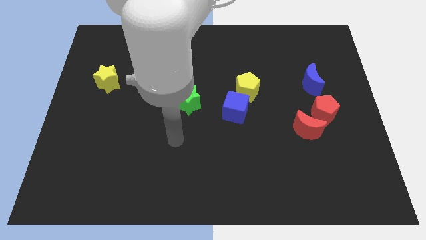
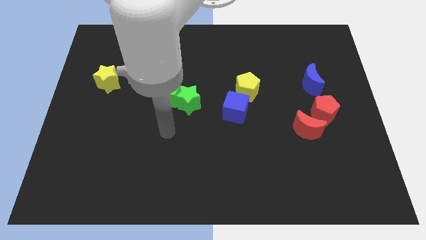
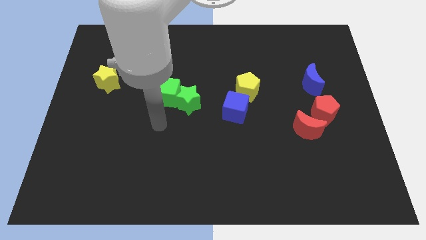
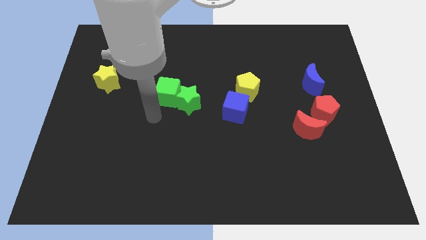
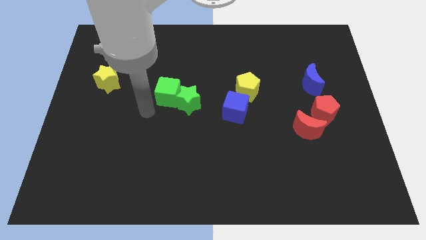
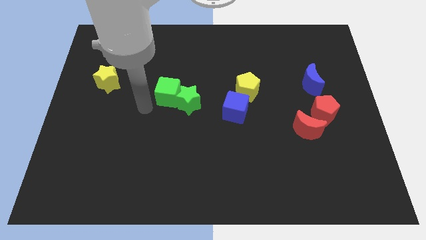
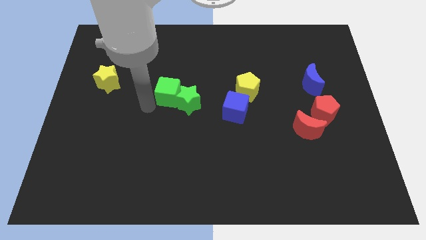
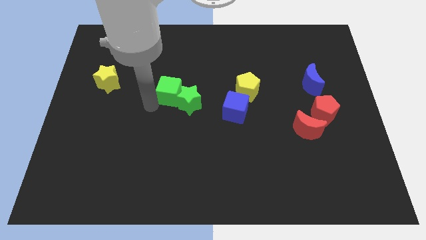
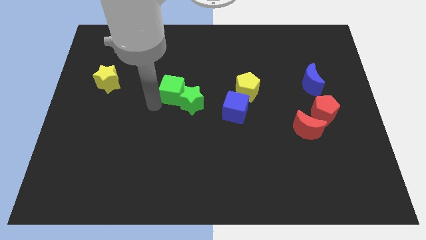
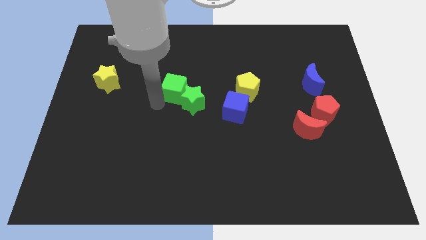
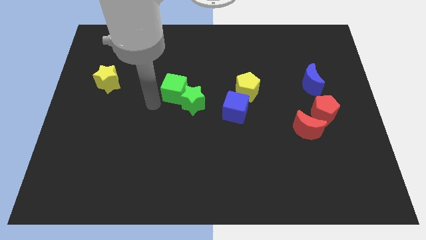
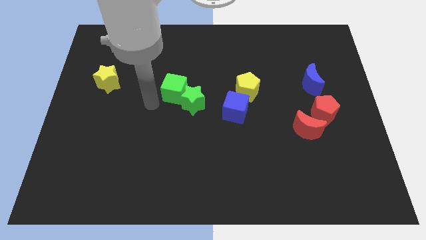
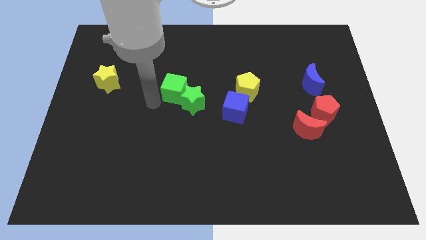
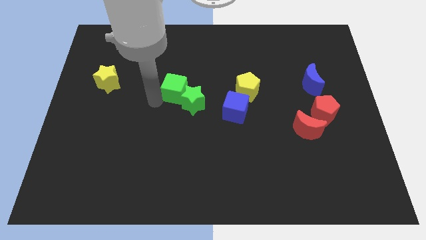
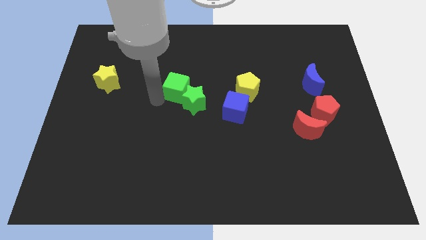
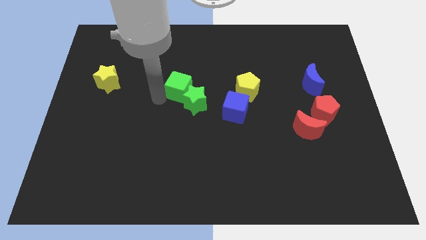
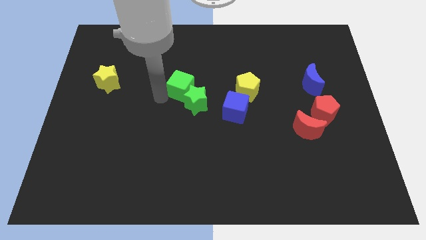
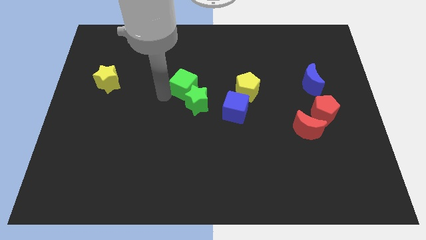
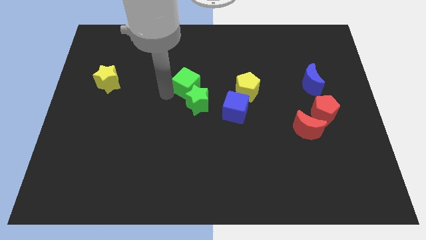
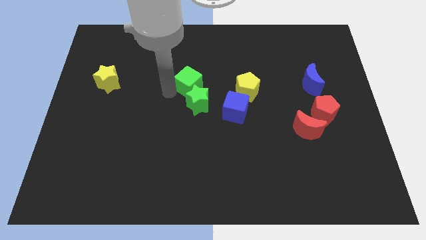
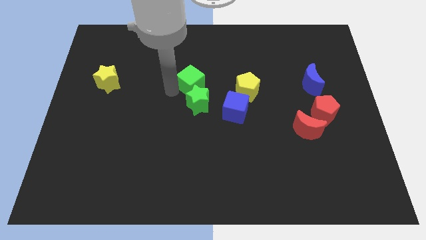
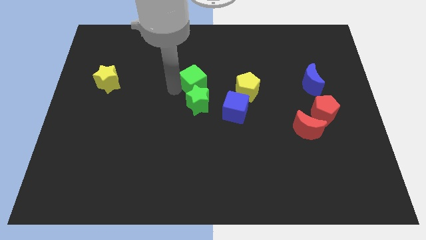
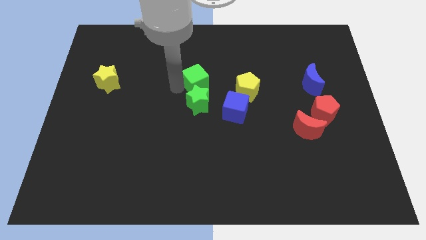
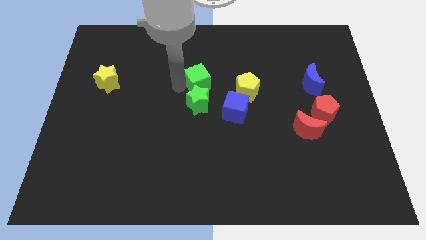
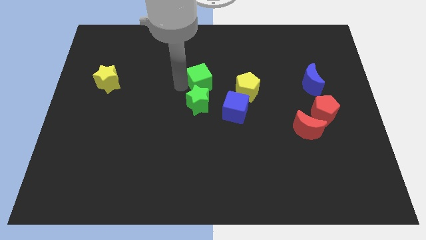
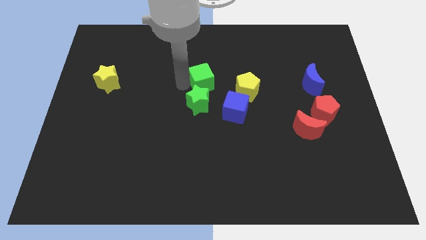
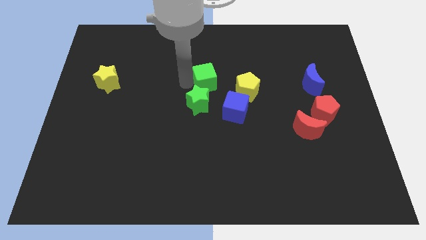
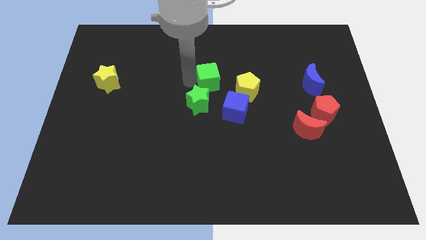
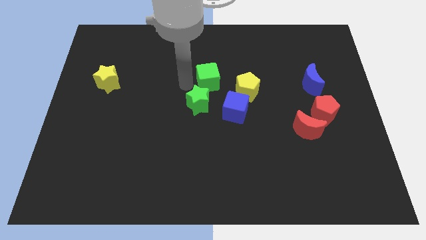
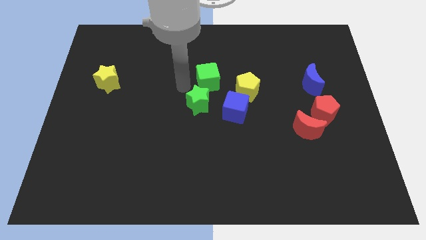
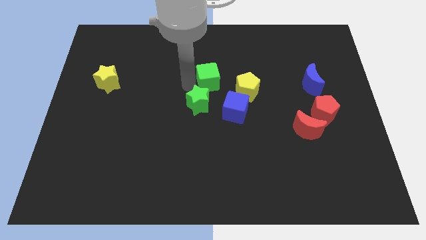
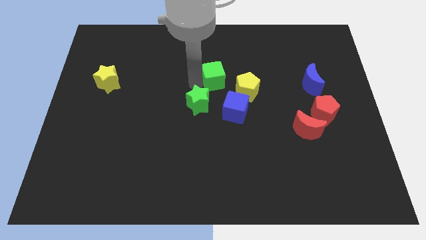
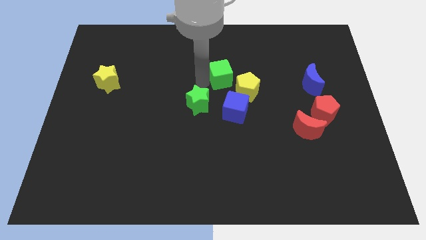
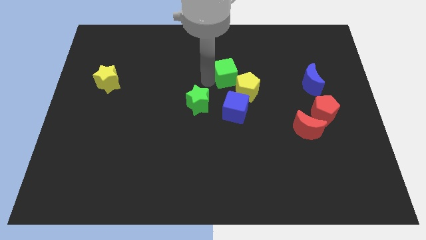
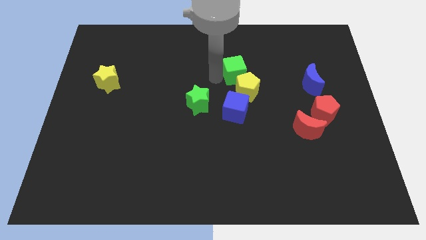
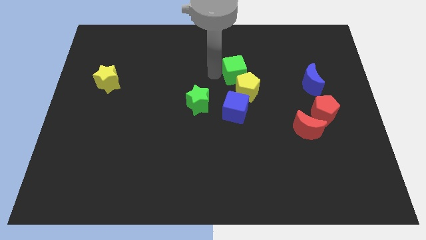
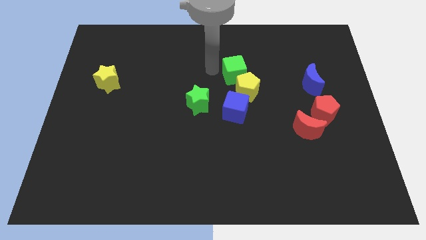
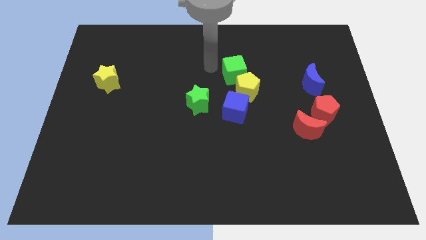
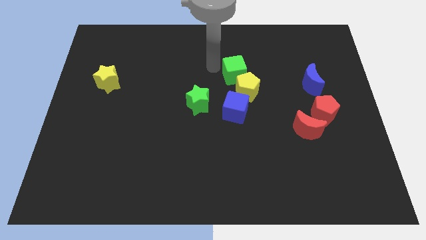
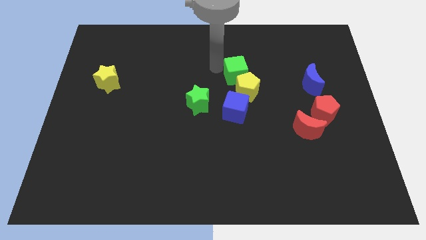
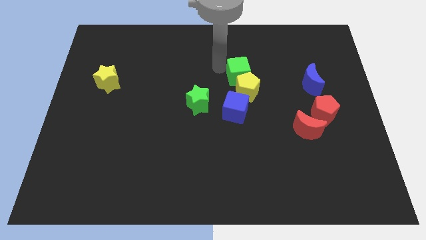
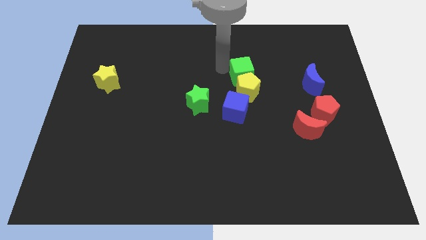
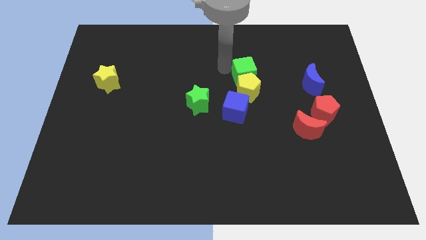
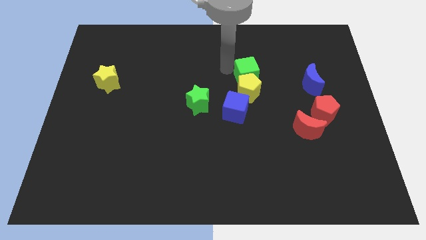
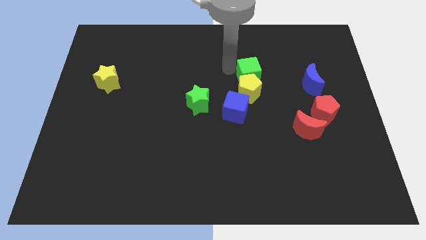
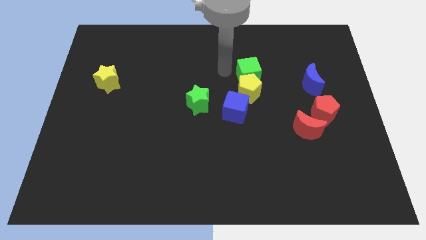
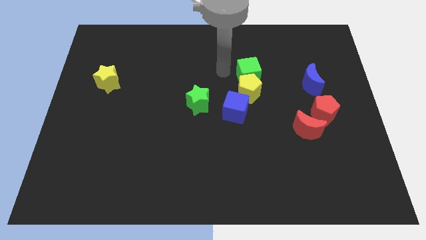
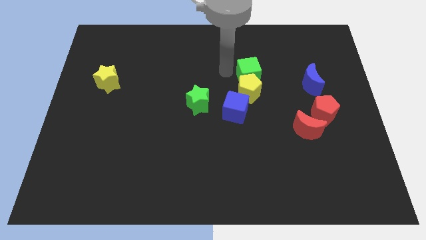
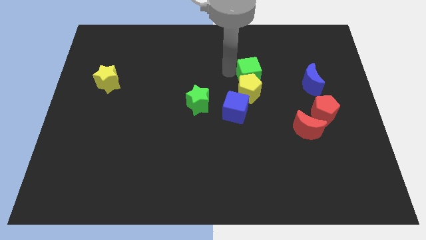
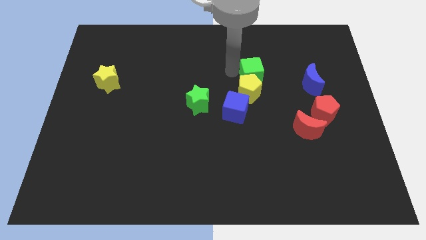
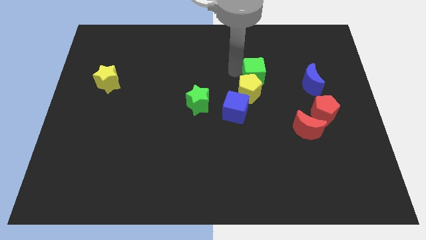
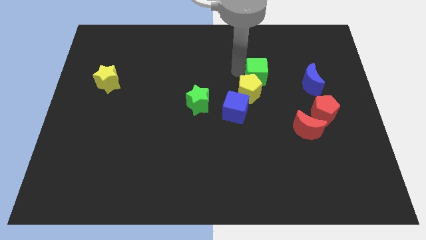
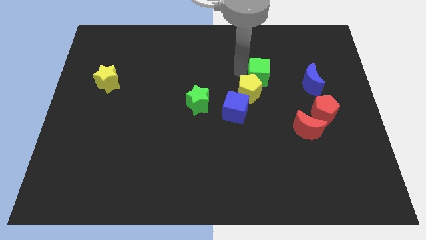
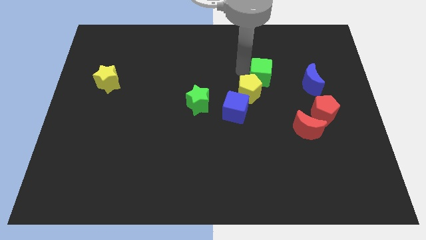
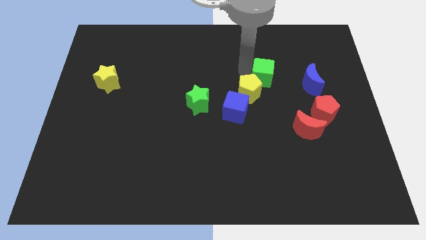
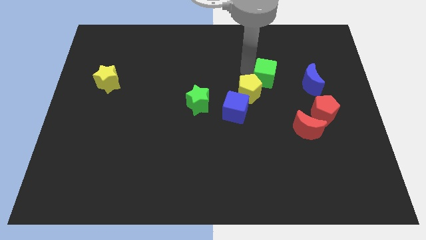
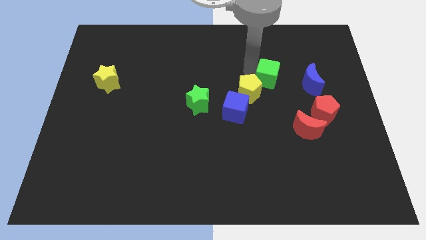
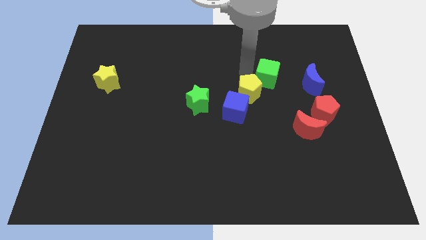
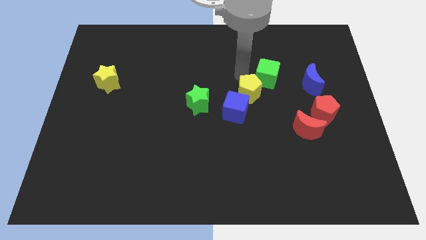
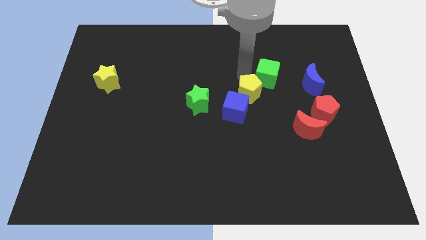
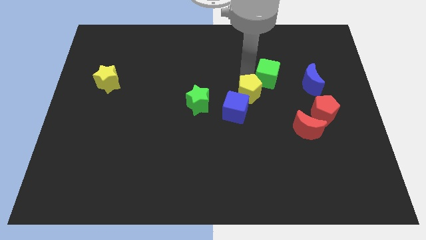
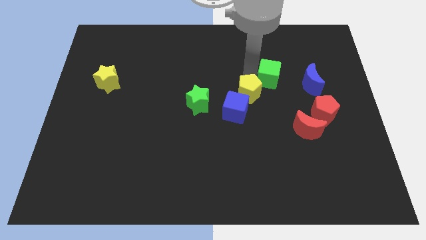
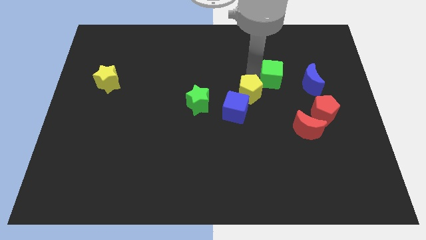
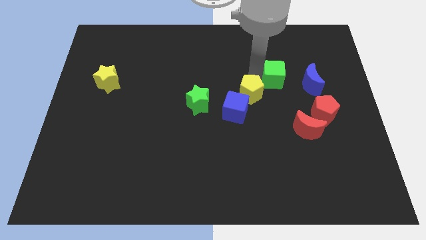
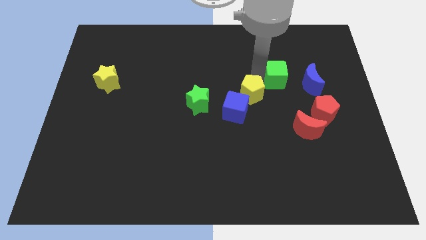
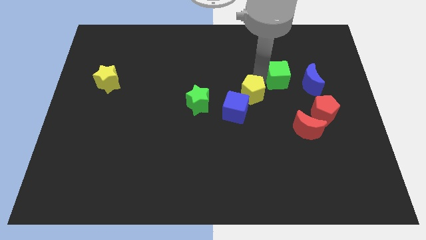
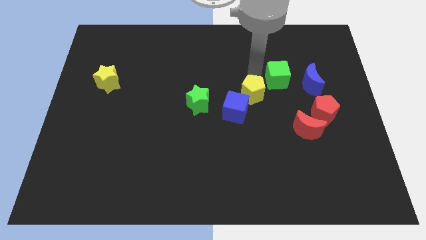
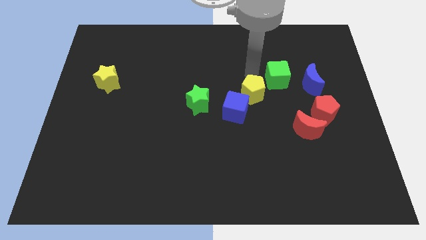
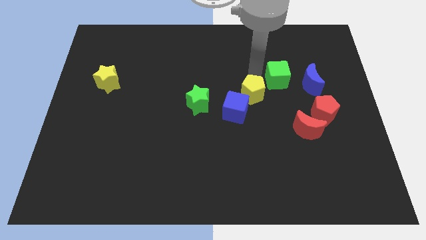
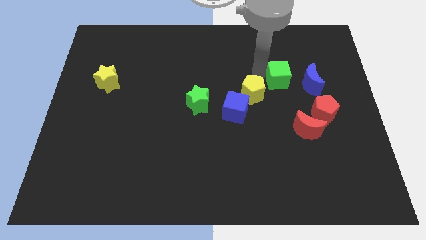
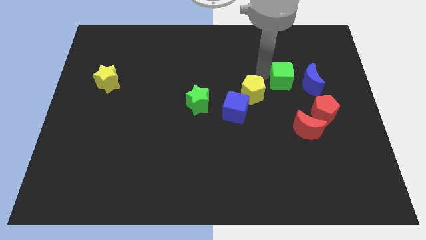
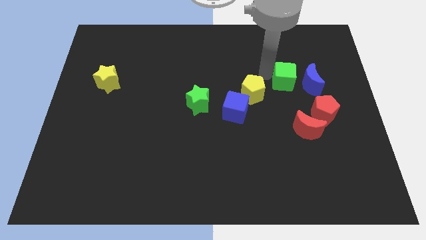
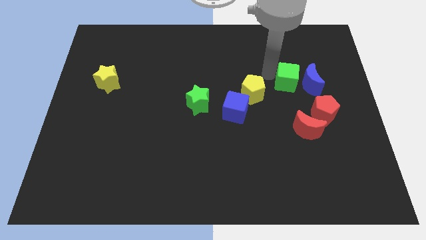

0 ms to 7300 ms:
slide the green cube close to the blue moon

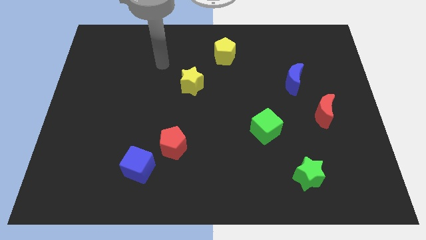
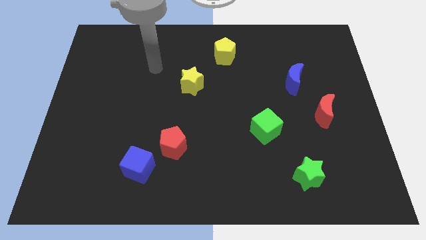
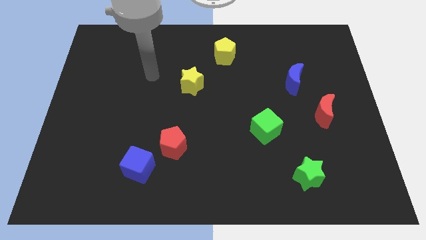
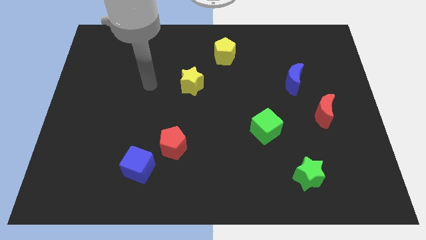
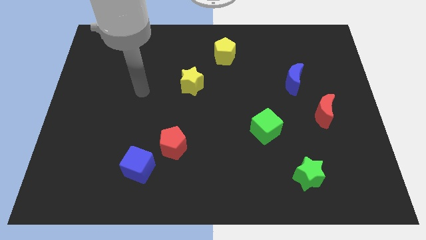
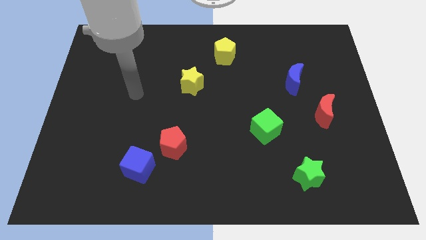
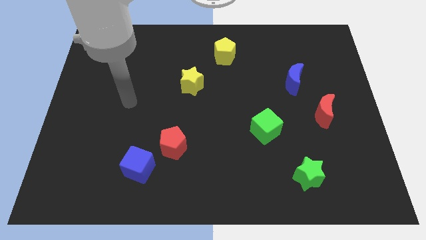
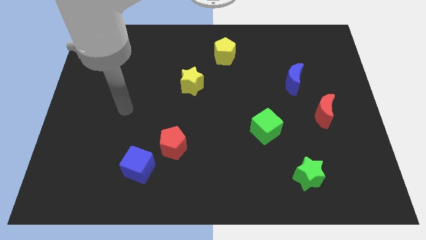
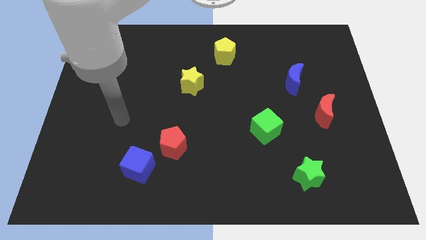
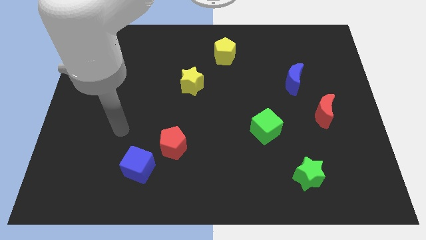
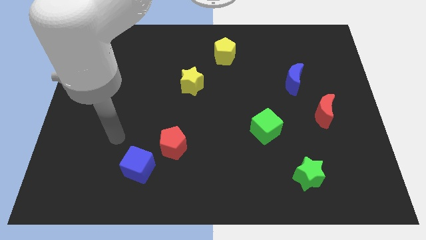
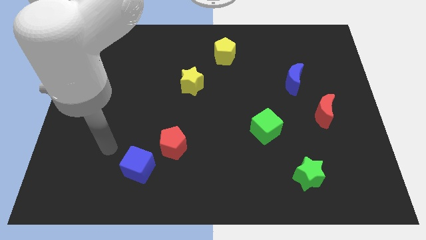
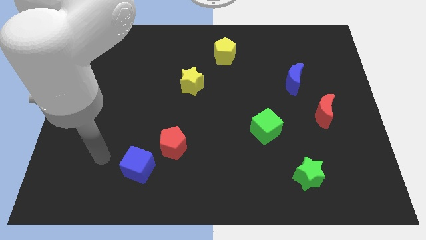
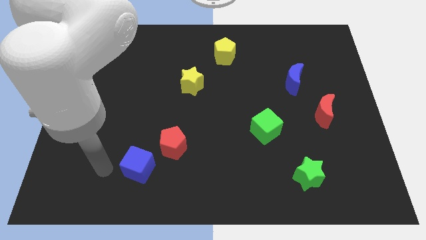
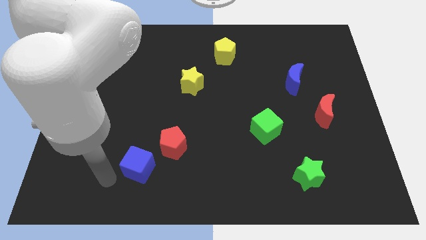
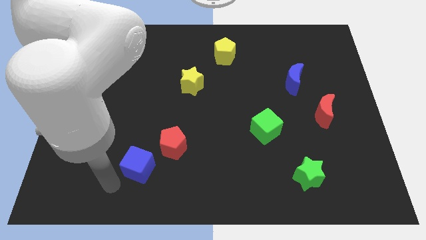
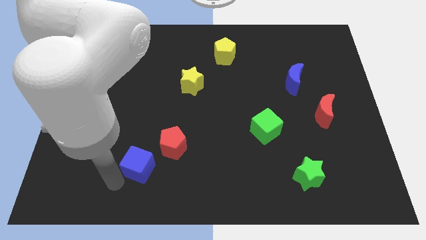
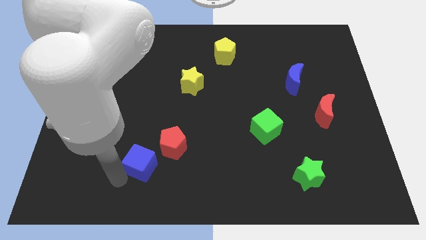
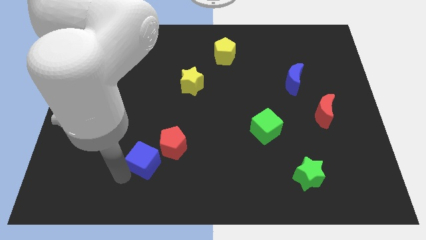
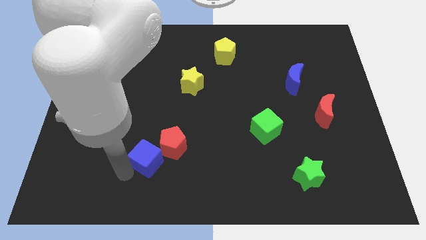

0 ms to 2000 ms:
slide the blue cube close to the red pentagon
